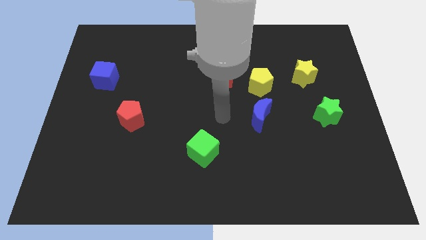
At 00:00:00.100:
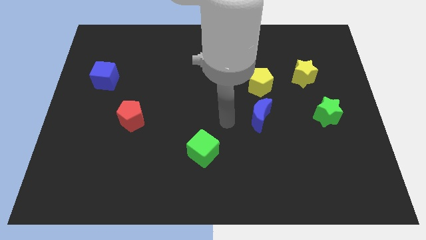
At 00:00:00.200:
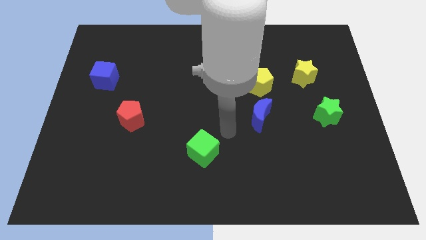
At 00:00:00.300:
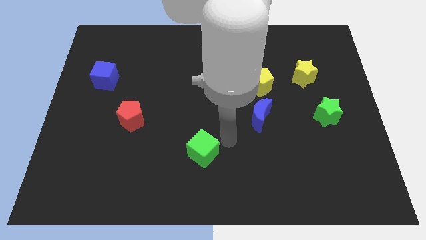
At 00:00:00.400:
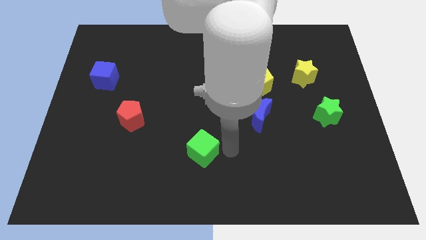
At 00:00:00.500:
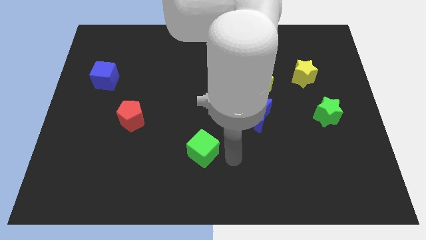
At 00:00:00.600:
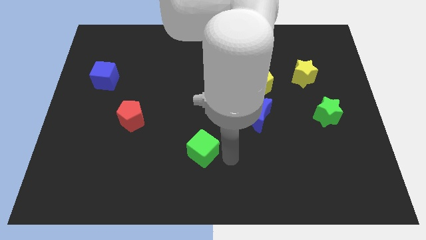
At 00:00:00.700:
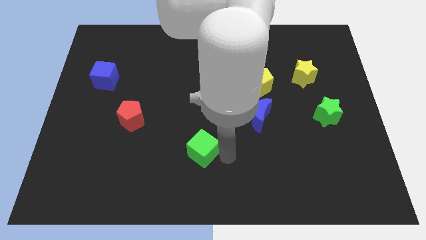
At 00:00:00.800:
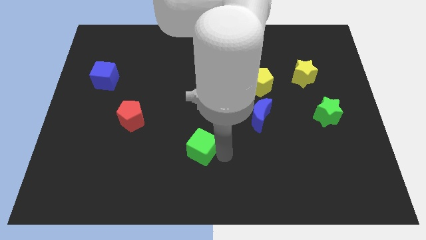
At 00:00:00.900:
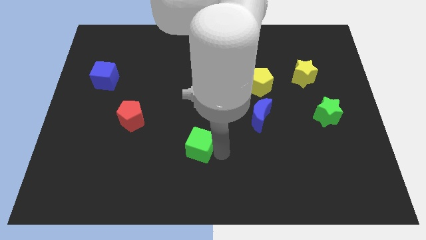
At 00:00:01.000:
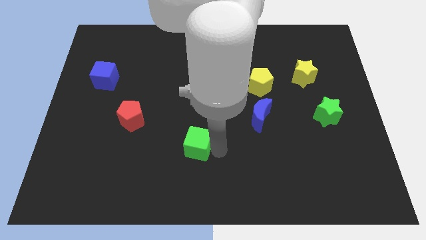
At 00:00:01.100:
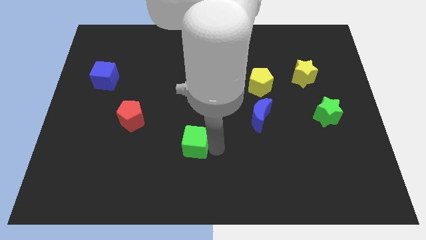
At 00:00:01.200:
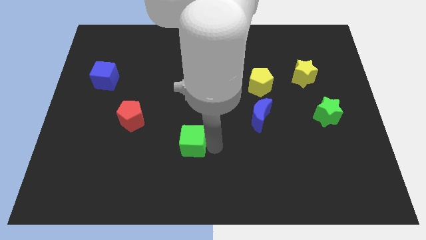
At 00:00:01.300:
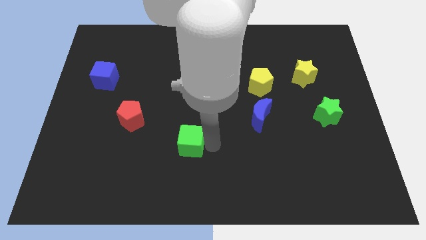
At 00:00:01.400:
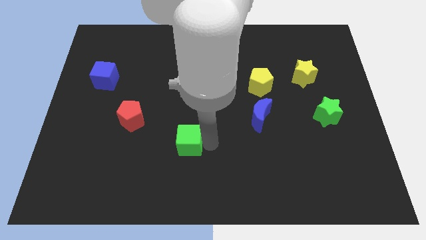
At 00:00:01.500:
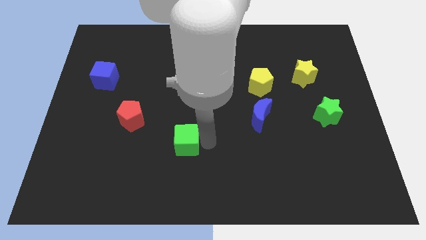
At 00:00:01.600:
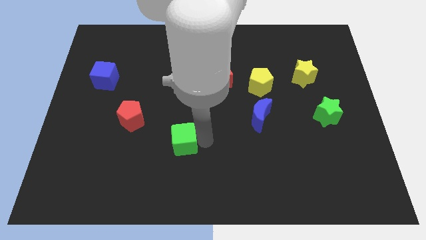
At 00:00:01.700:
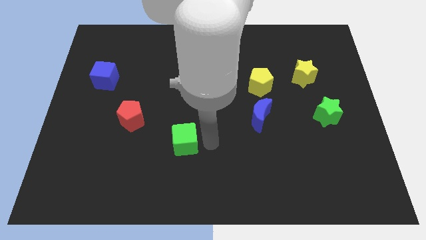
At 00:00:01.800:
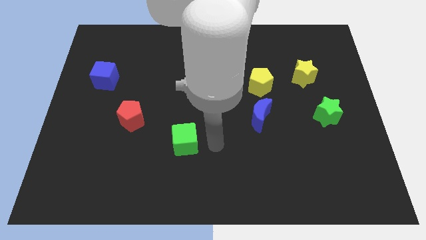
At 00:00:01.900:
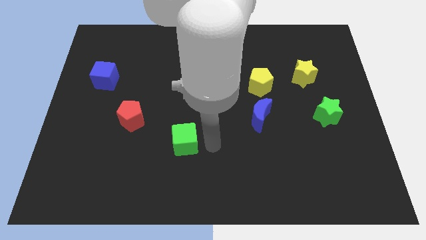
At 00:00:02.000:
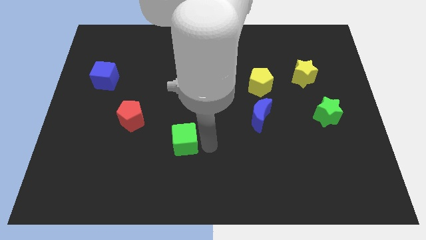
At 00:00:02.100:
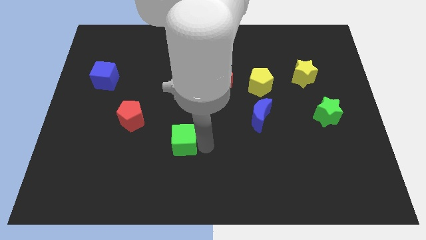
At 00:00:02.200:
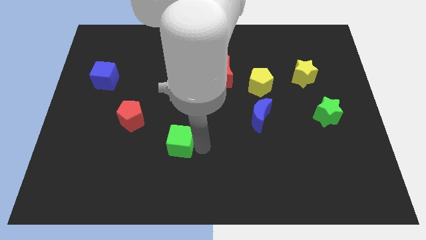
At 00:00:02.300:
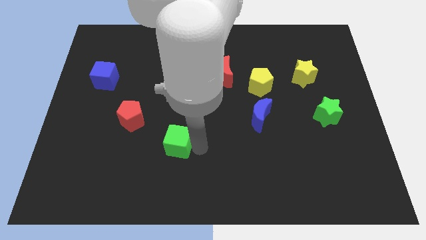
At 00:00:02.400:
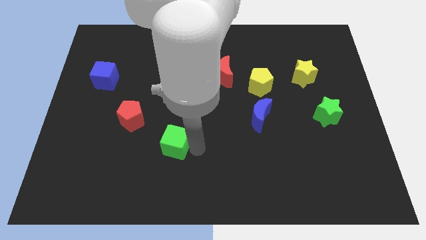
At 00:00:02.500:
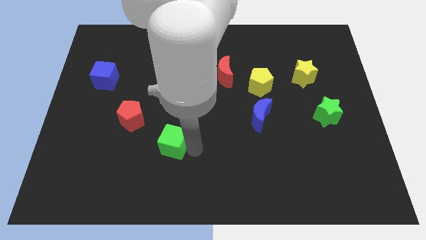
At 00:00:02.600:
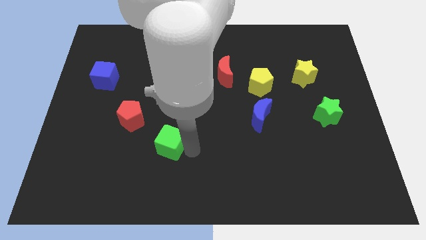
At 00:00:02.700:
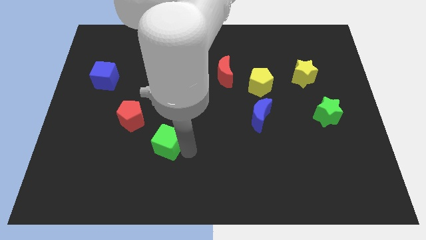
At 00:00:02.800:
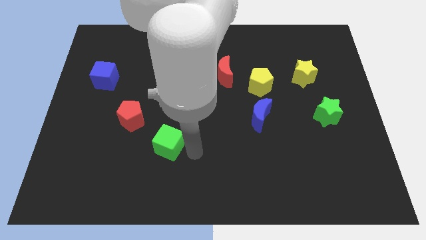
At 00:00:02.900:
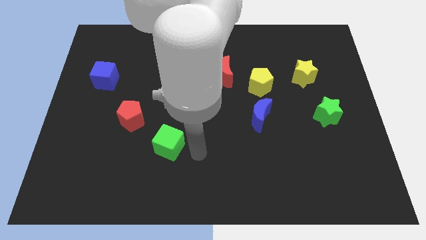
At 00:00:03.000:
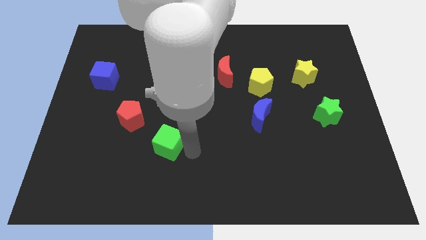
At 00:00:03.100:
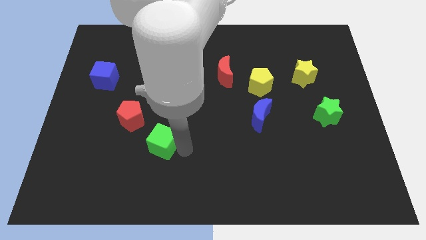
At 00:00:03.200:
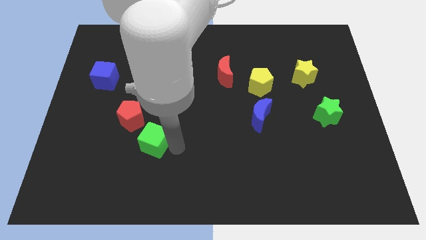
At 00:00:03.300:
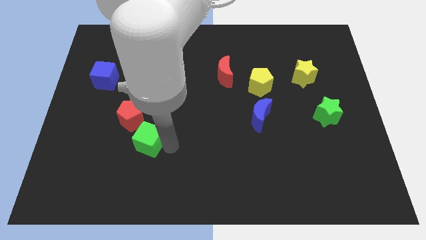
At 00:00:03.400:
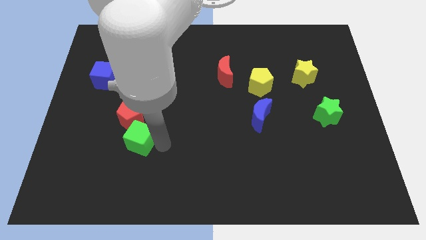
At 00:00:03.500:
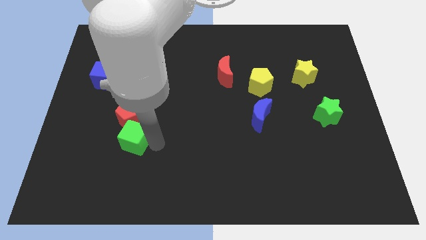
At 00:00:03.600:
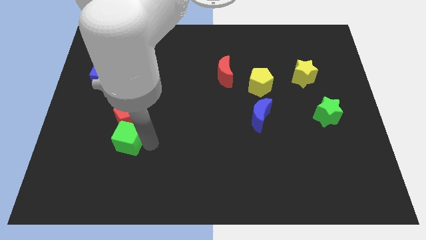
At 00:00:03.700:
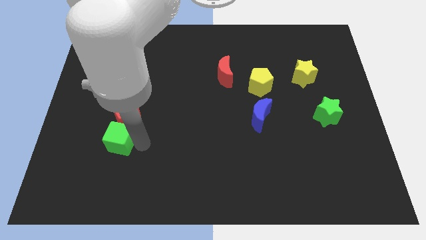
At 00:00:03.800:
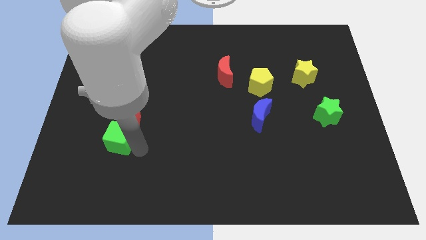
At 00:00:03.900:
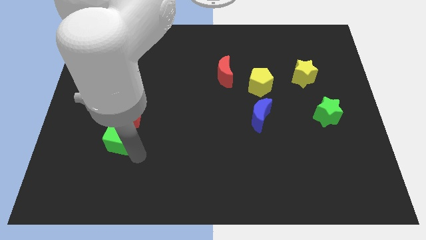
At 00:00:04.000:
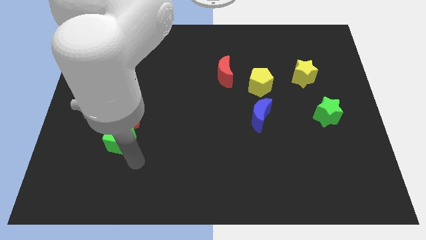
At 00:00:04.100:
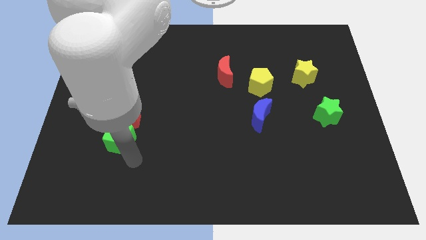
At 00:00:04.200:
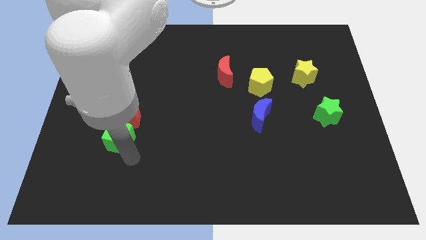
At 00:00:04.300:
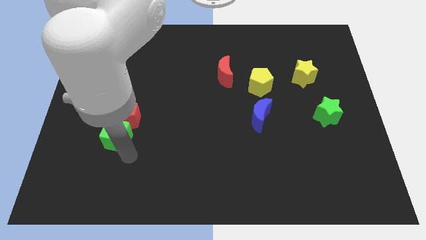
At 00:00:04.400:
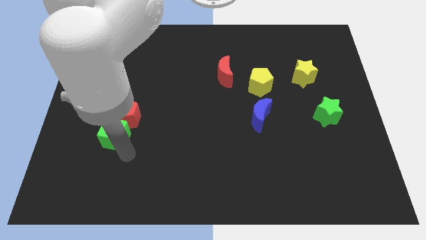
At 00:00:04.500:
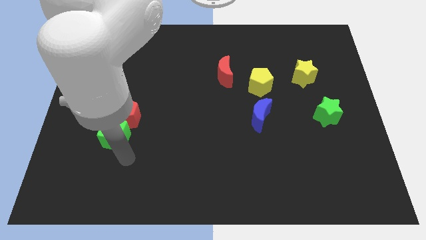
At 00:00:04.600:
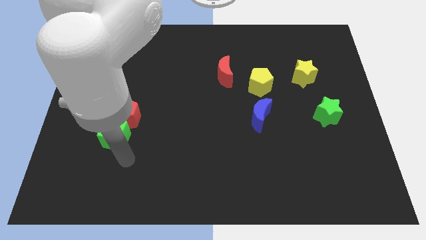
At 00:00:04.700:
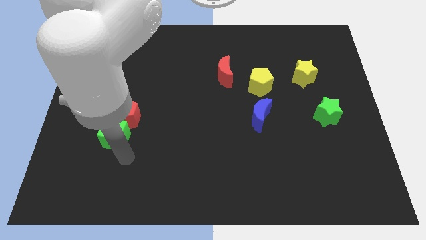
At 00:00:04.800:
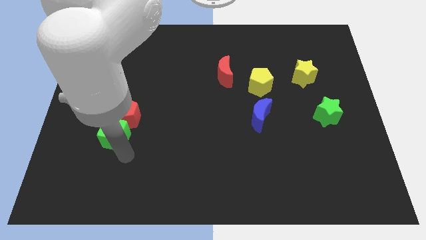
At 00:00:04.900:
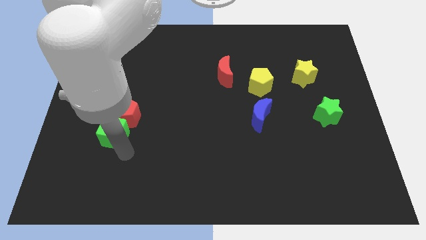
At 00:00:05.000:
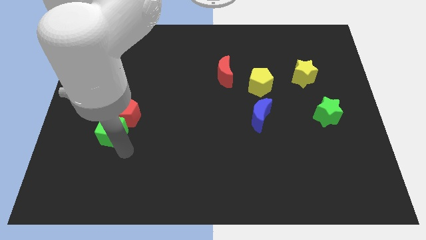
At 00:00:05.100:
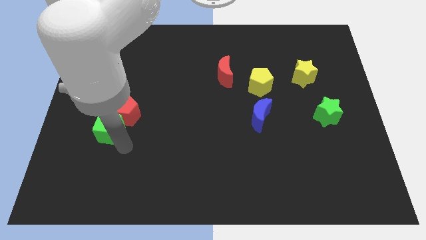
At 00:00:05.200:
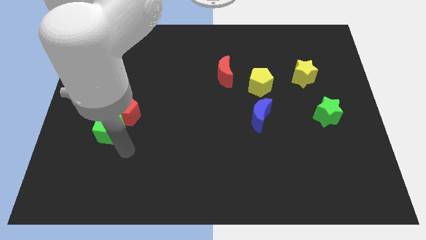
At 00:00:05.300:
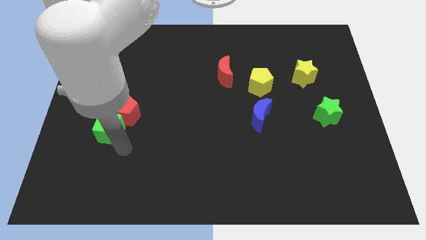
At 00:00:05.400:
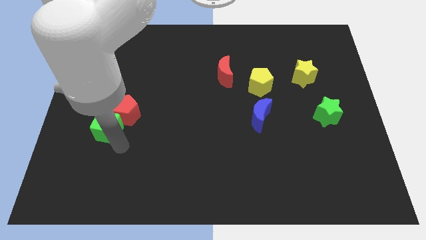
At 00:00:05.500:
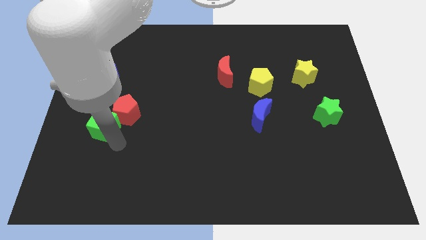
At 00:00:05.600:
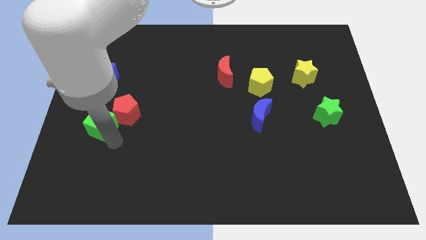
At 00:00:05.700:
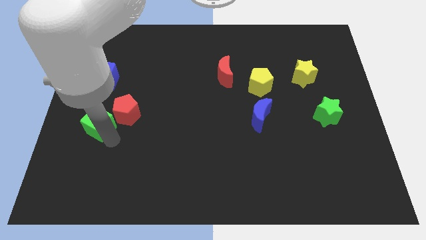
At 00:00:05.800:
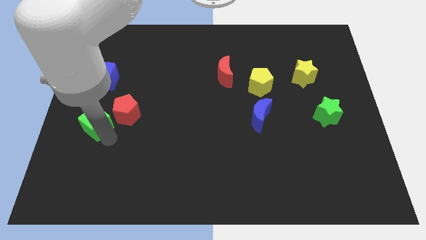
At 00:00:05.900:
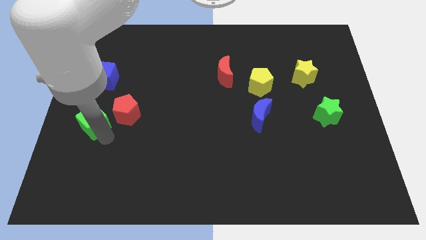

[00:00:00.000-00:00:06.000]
slide the green cube to the center left
